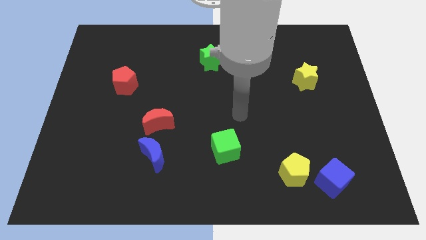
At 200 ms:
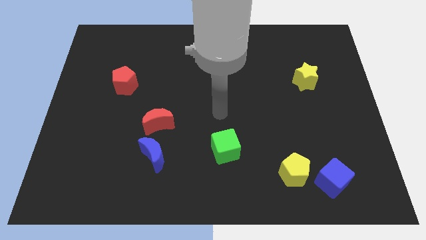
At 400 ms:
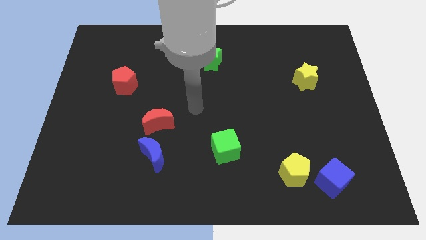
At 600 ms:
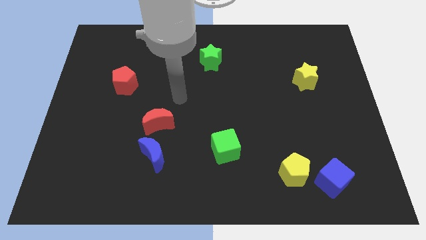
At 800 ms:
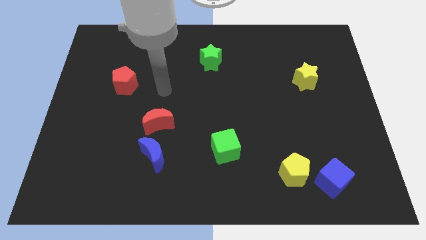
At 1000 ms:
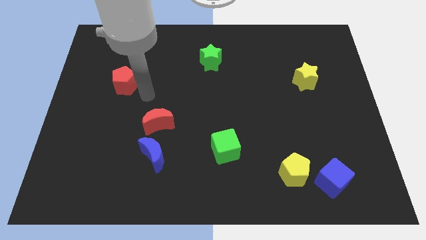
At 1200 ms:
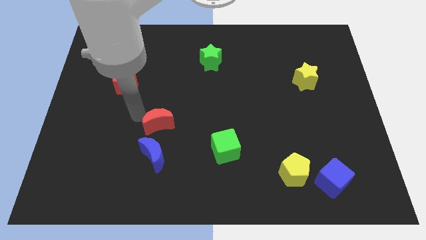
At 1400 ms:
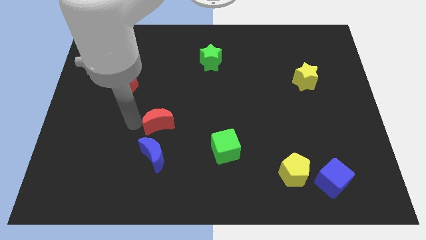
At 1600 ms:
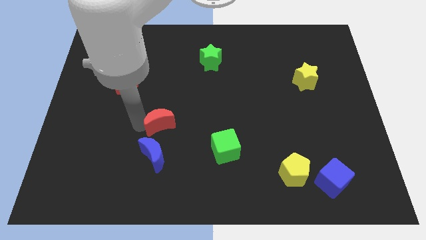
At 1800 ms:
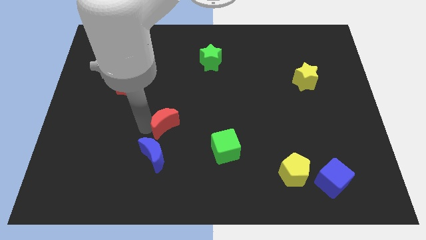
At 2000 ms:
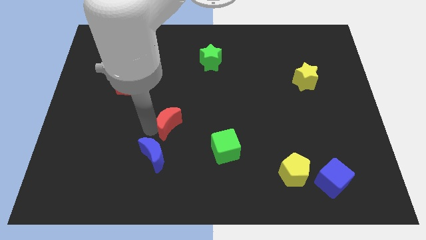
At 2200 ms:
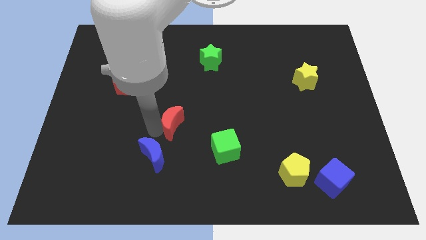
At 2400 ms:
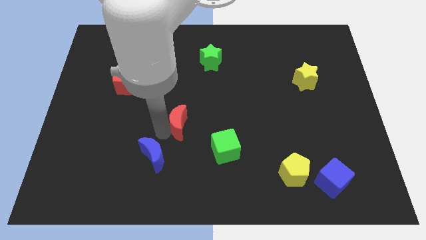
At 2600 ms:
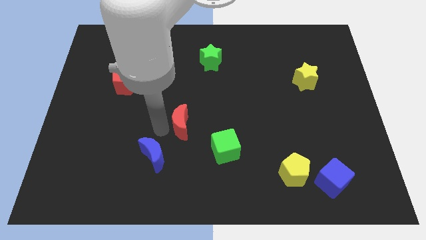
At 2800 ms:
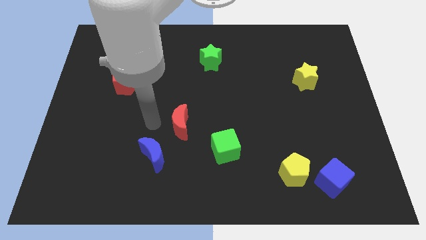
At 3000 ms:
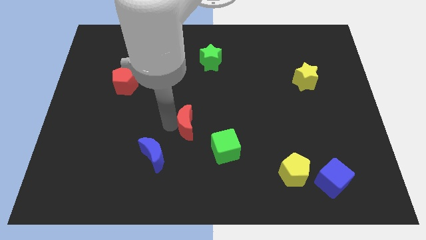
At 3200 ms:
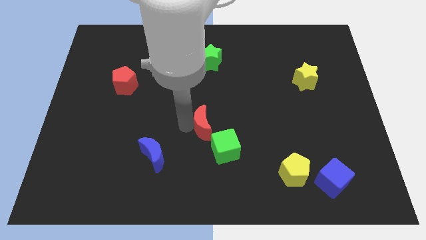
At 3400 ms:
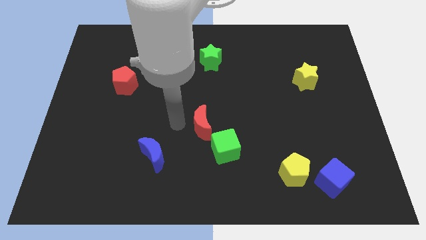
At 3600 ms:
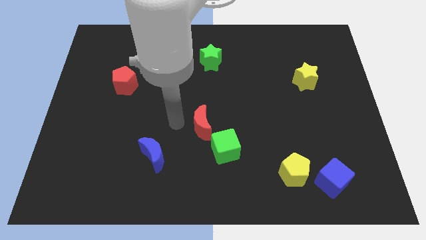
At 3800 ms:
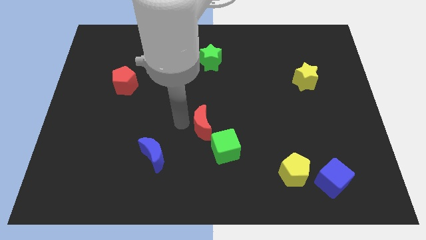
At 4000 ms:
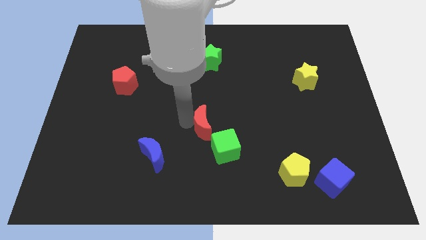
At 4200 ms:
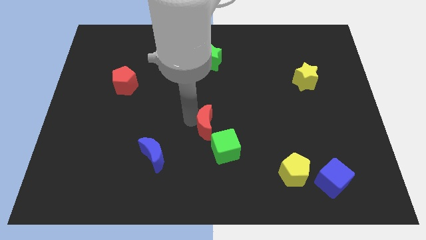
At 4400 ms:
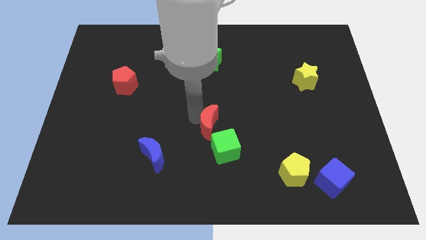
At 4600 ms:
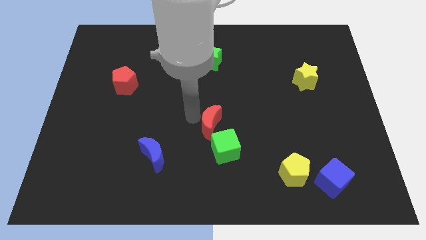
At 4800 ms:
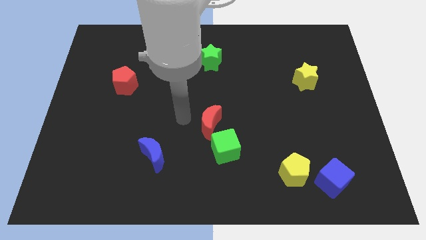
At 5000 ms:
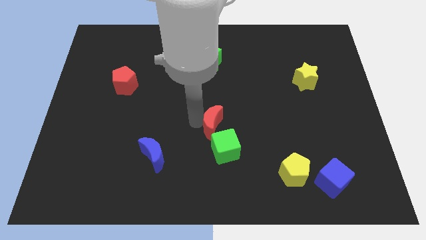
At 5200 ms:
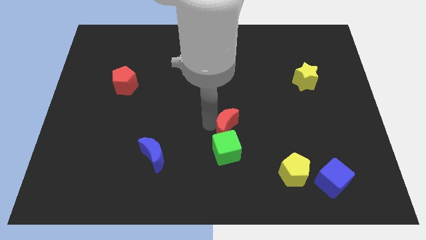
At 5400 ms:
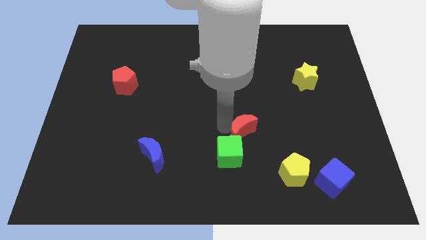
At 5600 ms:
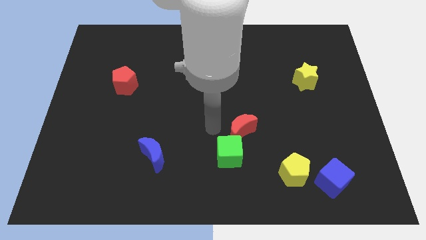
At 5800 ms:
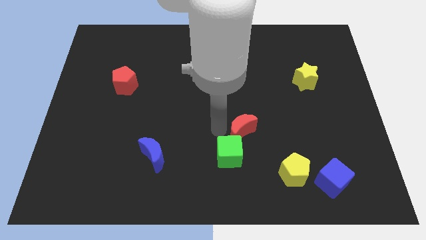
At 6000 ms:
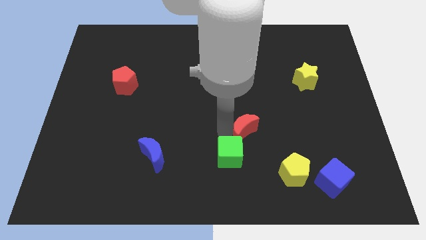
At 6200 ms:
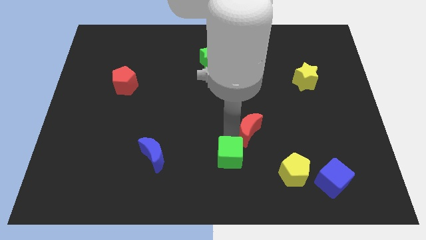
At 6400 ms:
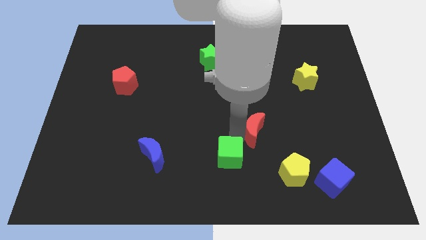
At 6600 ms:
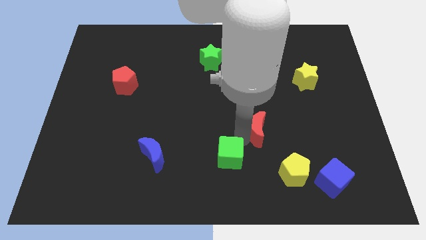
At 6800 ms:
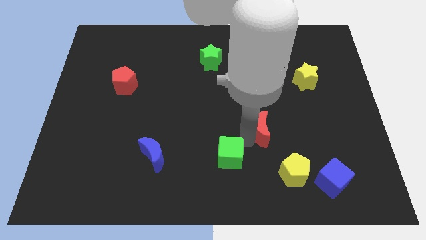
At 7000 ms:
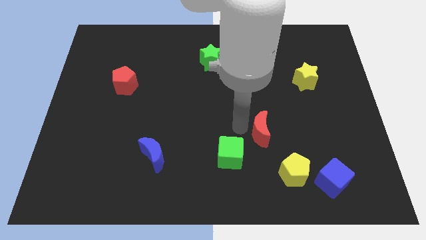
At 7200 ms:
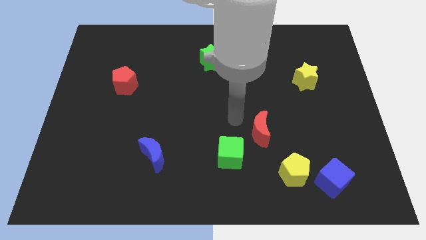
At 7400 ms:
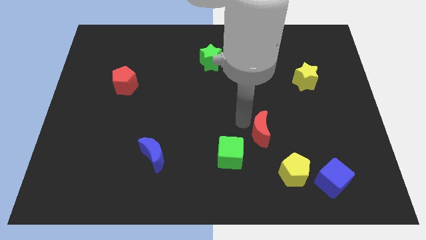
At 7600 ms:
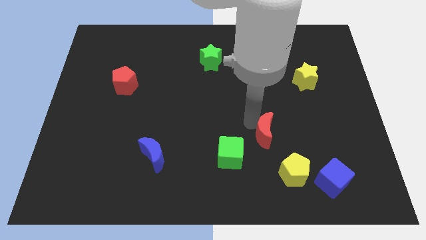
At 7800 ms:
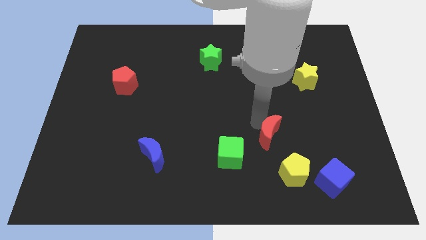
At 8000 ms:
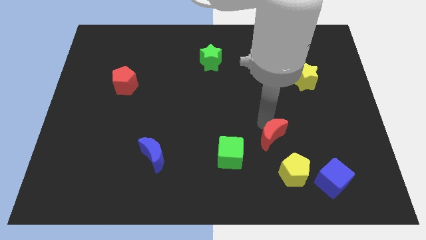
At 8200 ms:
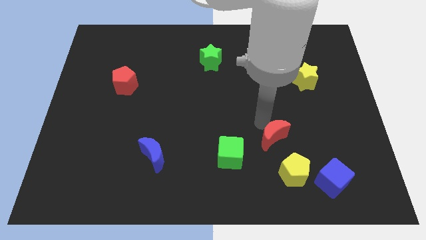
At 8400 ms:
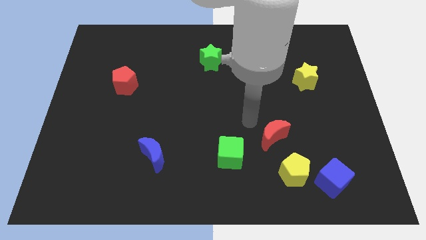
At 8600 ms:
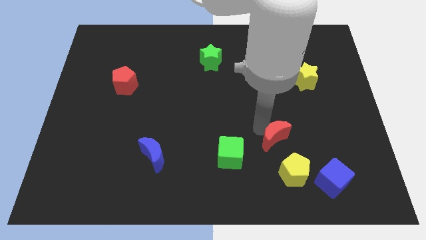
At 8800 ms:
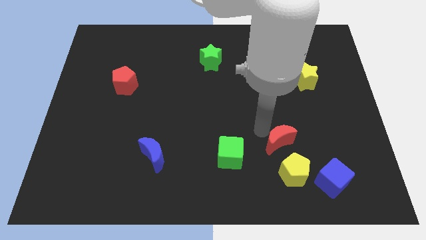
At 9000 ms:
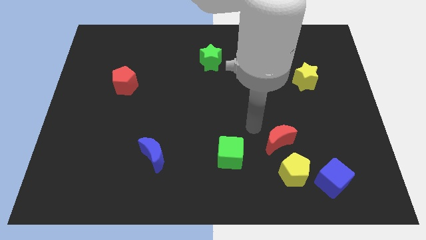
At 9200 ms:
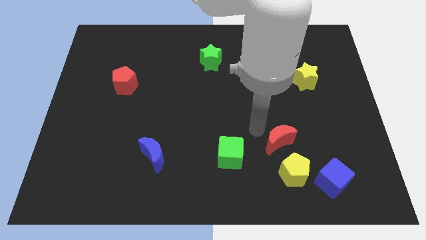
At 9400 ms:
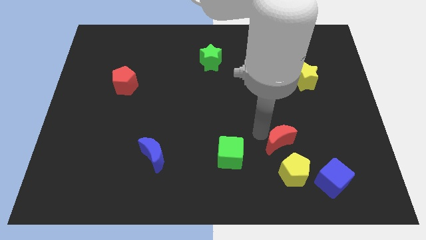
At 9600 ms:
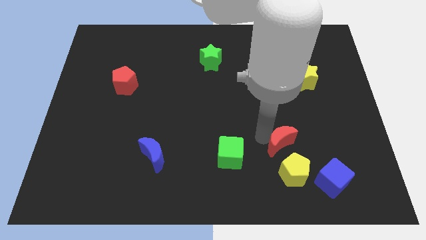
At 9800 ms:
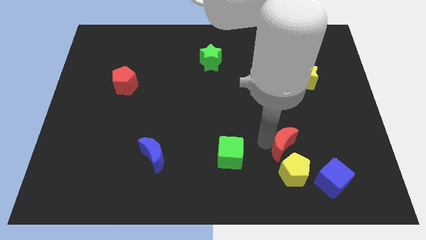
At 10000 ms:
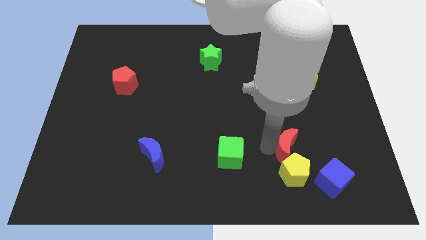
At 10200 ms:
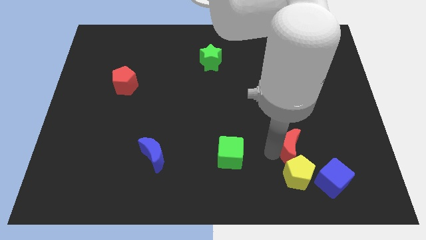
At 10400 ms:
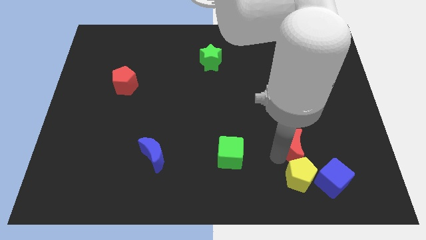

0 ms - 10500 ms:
move the red moon to the top right side of the yellow pentagon

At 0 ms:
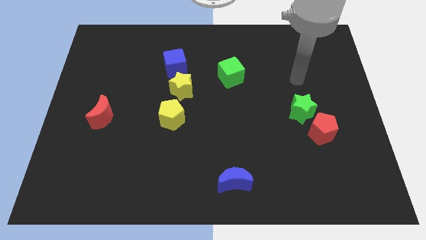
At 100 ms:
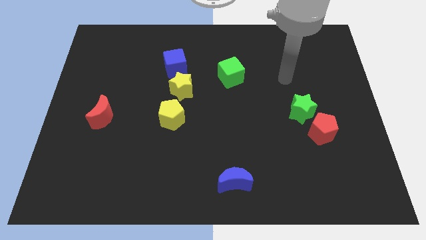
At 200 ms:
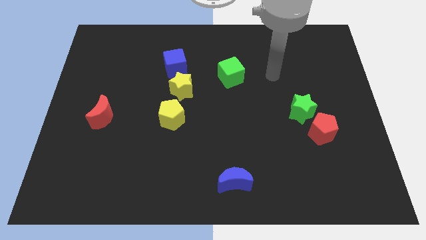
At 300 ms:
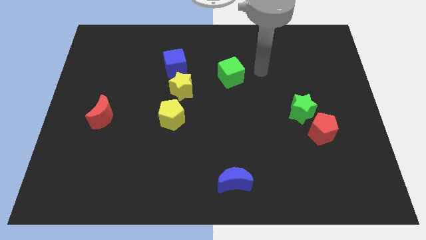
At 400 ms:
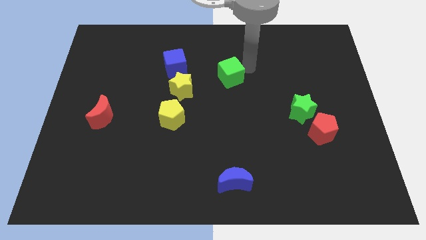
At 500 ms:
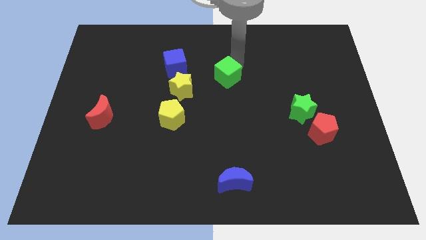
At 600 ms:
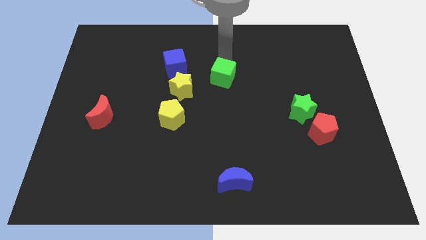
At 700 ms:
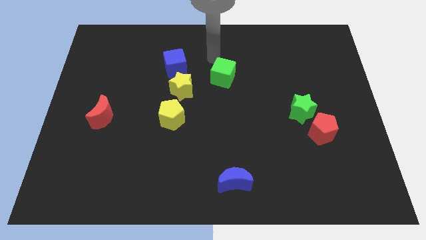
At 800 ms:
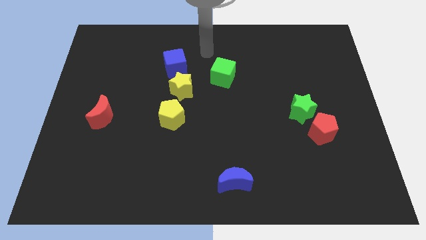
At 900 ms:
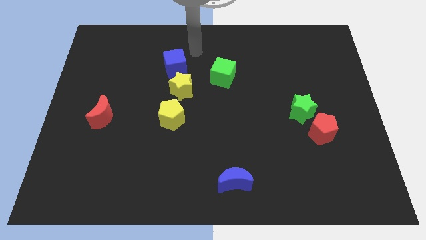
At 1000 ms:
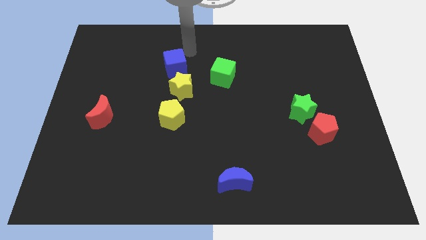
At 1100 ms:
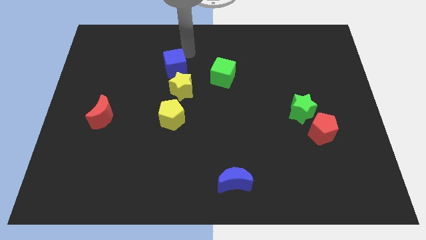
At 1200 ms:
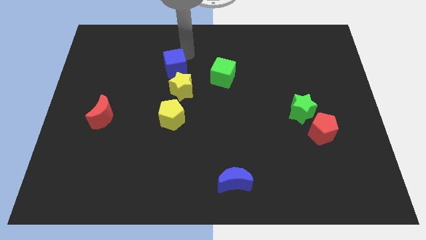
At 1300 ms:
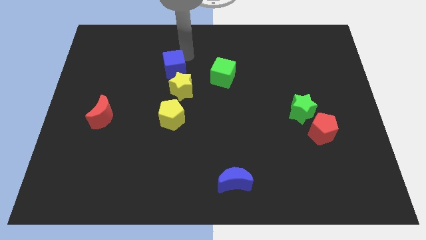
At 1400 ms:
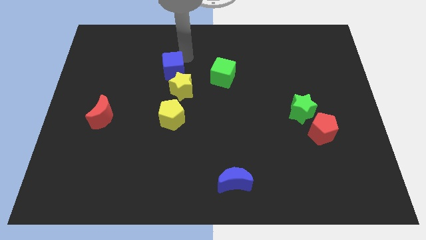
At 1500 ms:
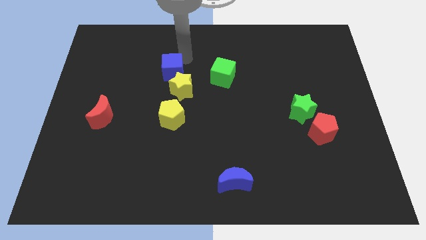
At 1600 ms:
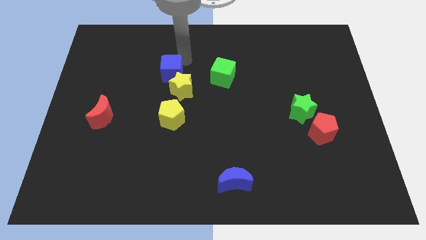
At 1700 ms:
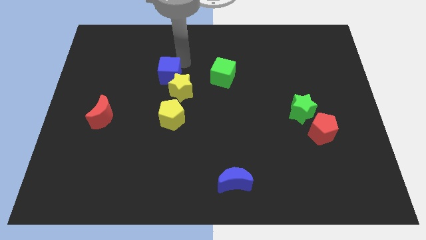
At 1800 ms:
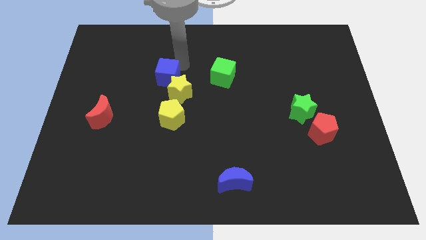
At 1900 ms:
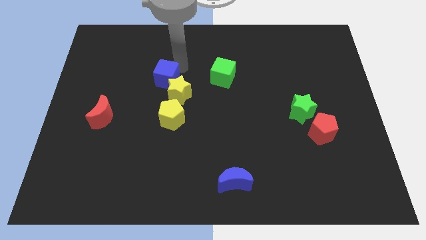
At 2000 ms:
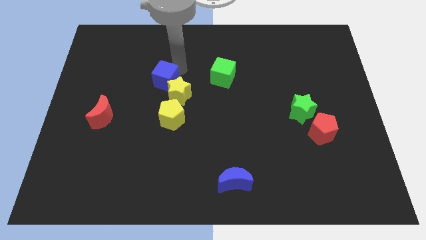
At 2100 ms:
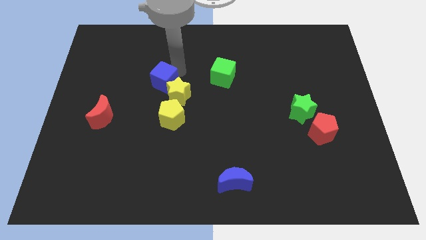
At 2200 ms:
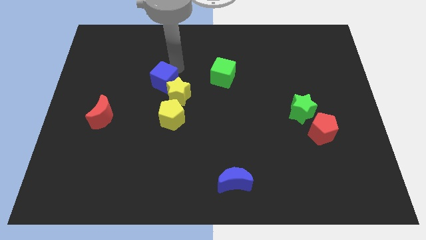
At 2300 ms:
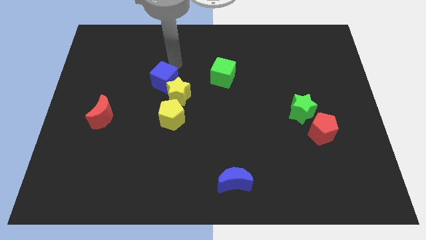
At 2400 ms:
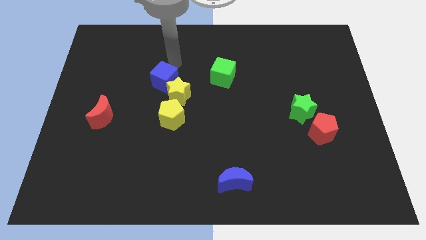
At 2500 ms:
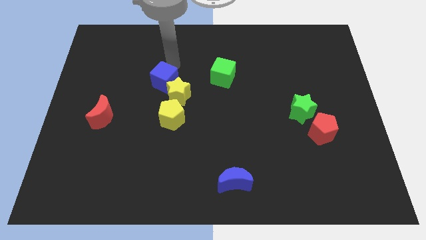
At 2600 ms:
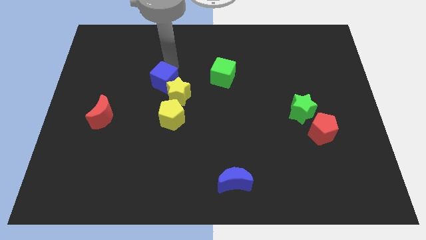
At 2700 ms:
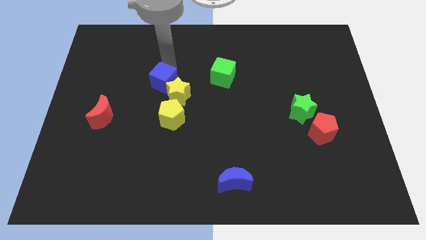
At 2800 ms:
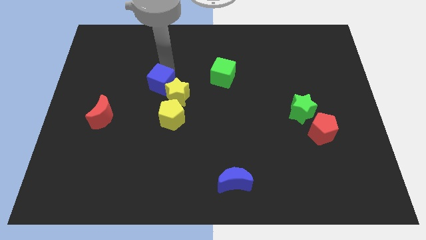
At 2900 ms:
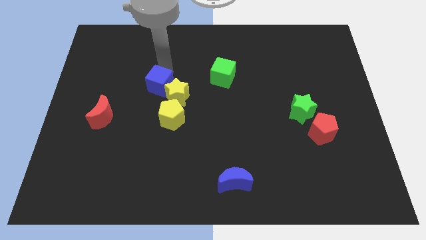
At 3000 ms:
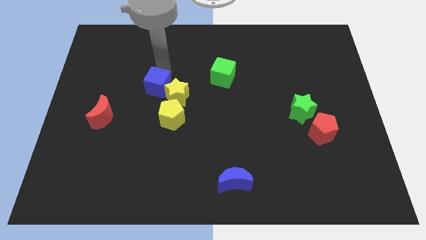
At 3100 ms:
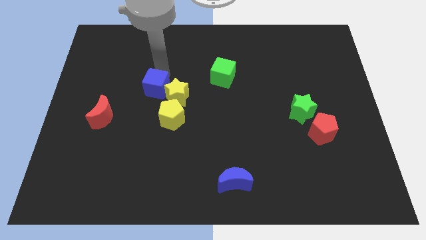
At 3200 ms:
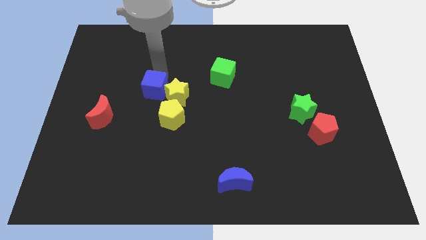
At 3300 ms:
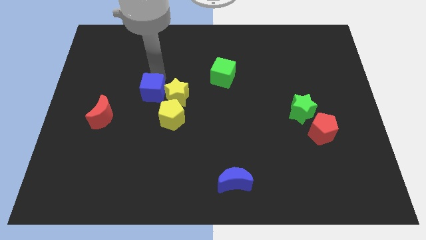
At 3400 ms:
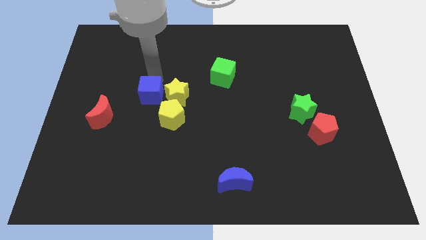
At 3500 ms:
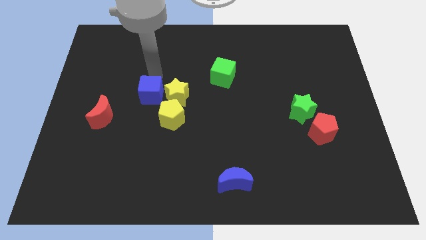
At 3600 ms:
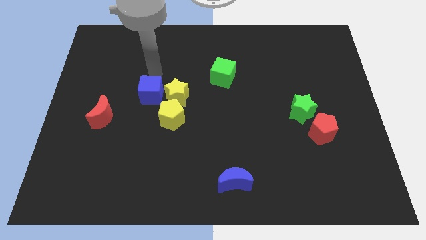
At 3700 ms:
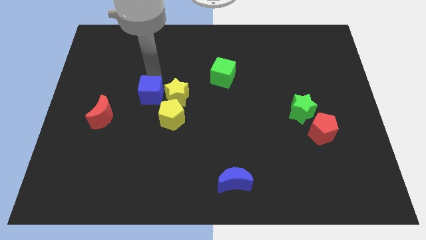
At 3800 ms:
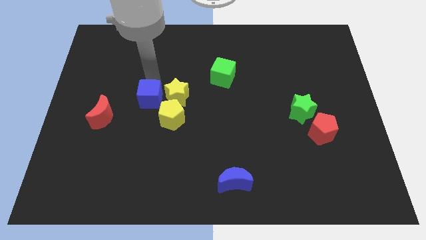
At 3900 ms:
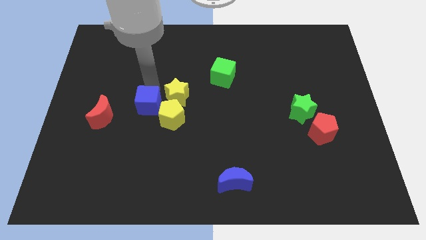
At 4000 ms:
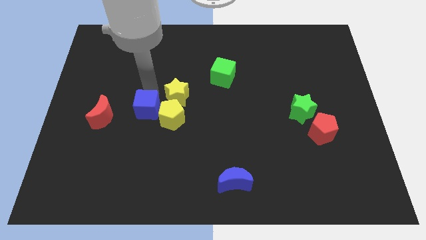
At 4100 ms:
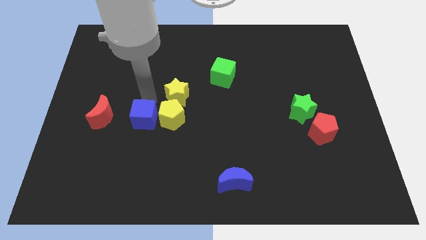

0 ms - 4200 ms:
put the blue cube to the bottom left side of the yellow pentagon
